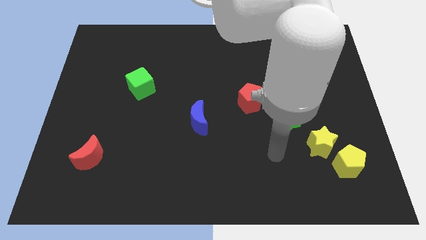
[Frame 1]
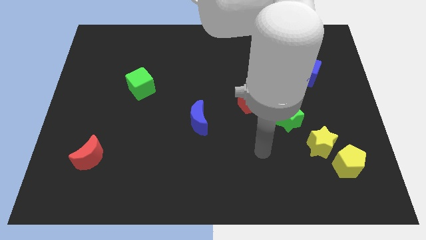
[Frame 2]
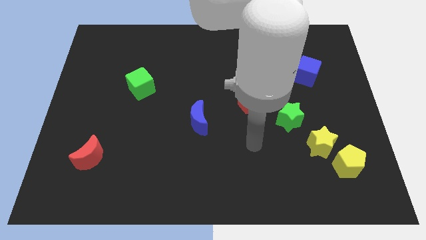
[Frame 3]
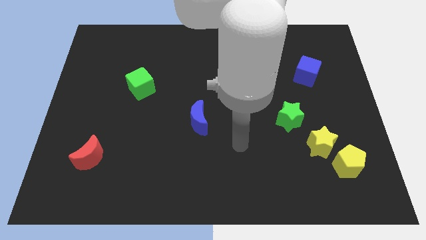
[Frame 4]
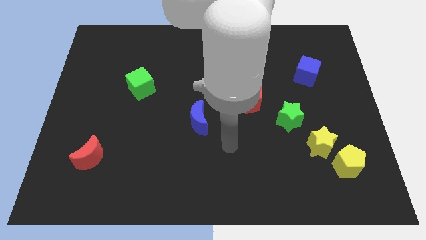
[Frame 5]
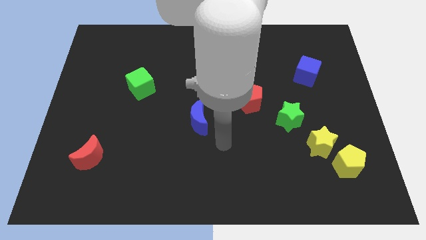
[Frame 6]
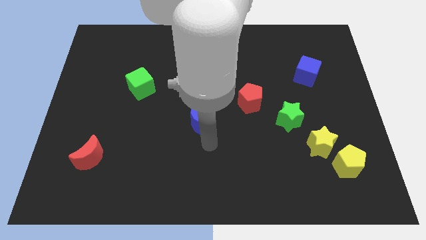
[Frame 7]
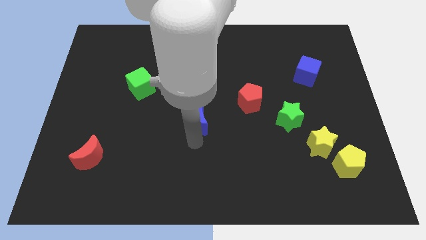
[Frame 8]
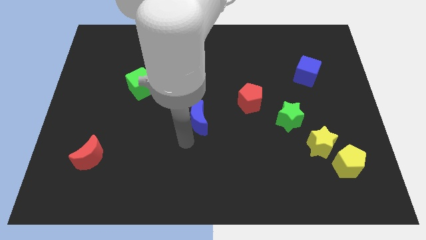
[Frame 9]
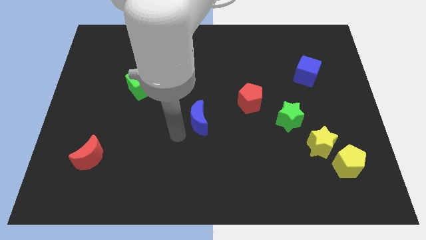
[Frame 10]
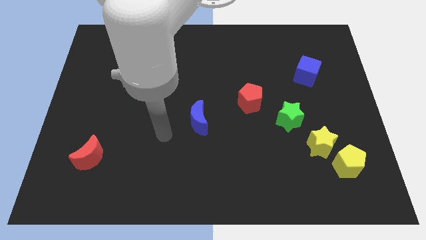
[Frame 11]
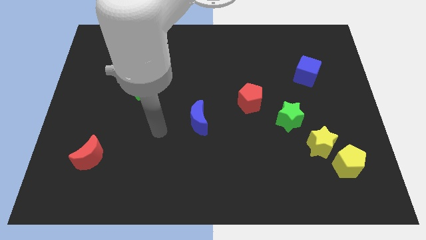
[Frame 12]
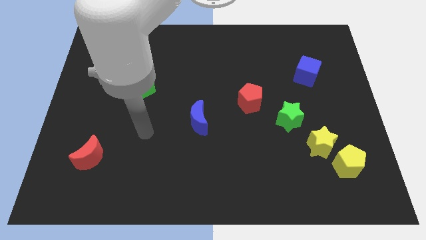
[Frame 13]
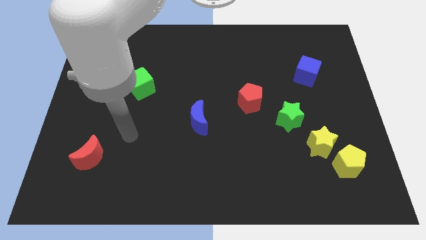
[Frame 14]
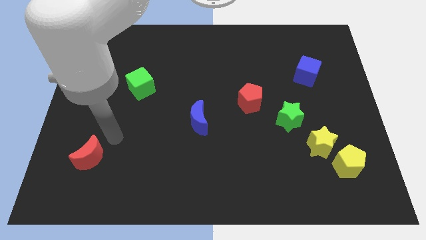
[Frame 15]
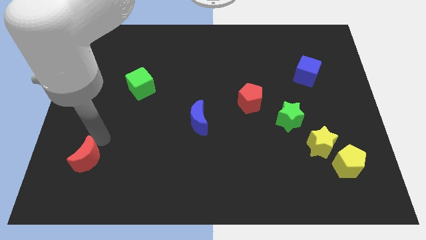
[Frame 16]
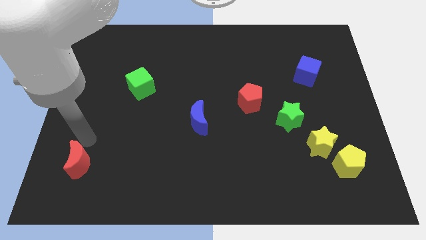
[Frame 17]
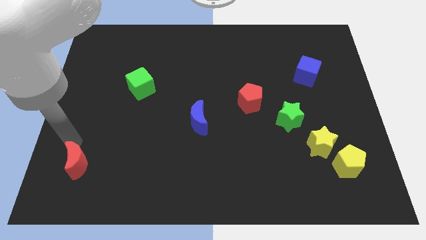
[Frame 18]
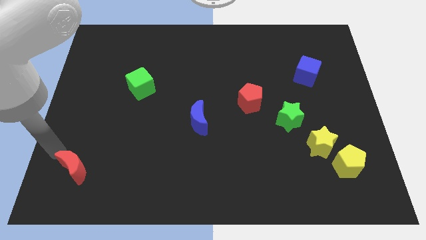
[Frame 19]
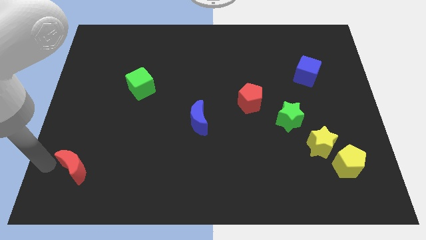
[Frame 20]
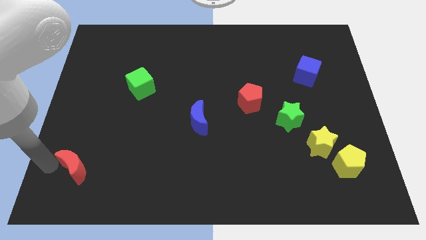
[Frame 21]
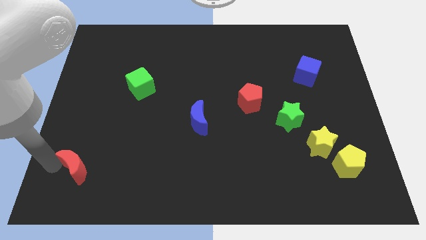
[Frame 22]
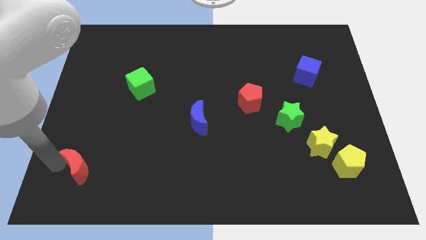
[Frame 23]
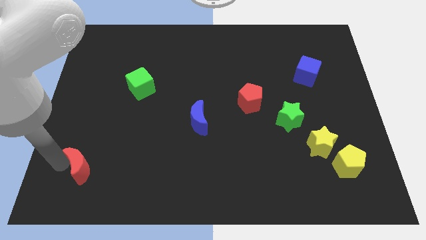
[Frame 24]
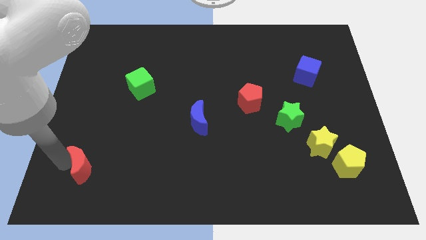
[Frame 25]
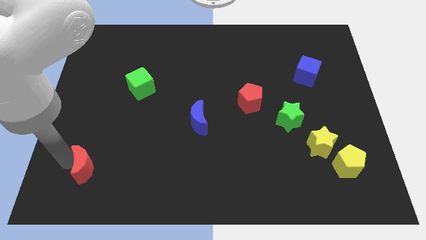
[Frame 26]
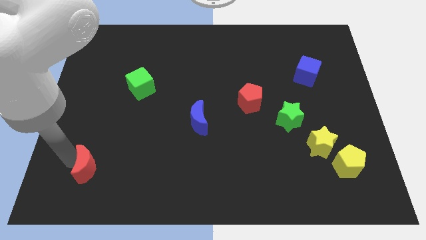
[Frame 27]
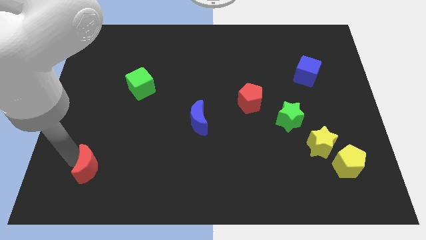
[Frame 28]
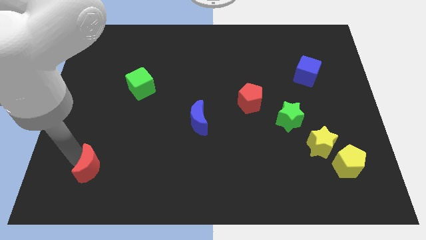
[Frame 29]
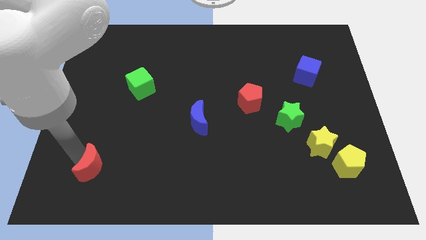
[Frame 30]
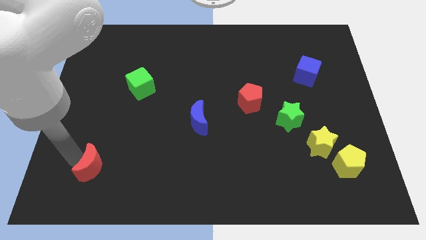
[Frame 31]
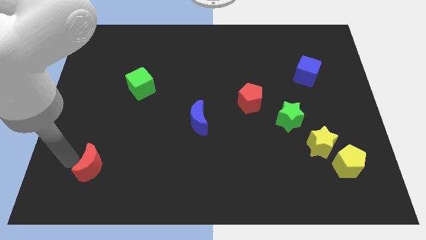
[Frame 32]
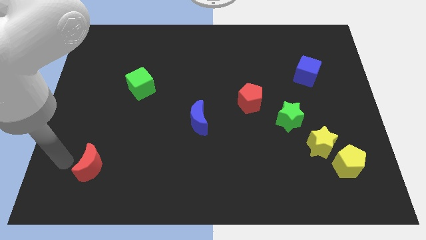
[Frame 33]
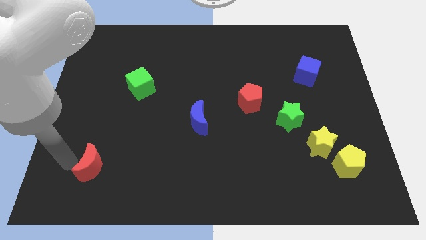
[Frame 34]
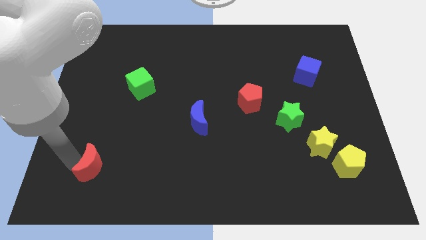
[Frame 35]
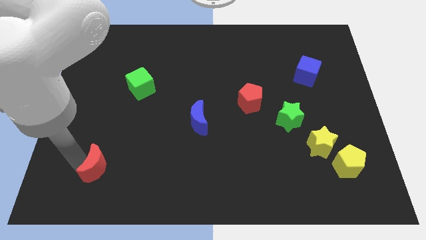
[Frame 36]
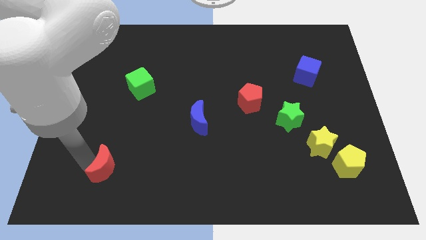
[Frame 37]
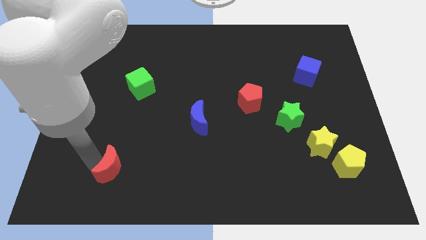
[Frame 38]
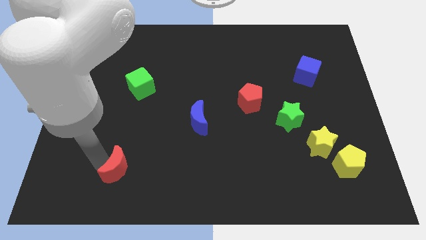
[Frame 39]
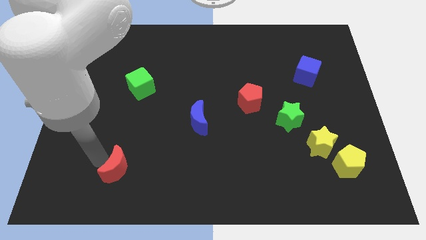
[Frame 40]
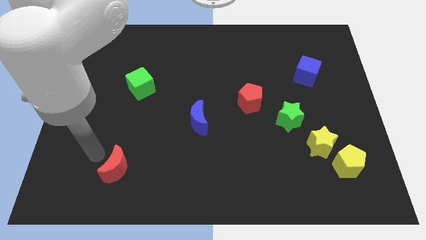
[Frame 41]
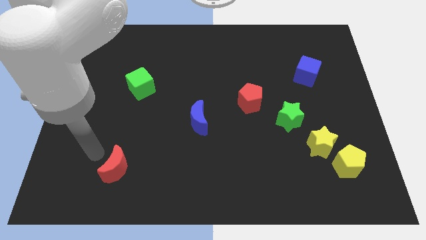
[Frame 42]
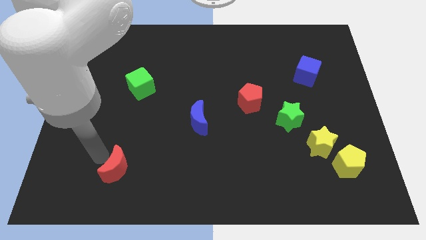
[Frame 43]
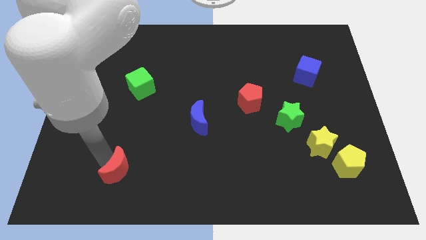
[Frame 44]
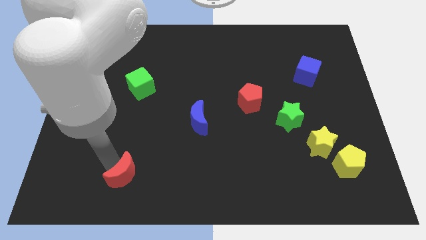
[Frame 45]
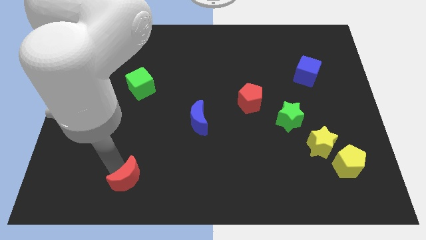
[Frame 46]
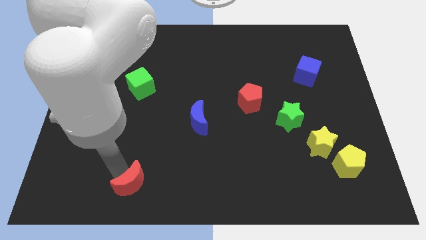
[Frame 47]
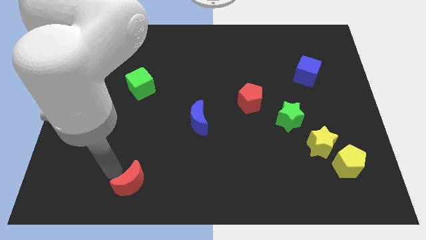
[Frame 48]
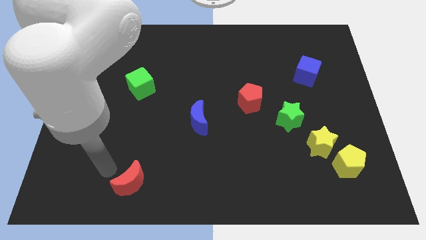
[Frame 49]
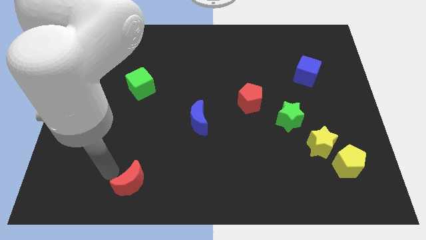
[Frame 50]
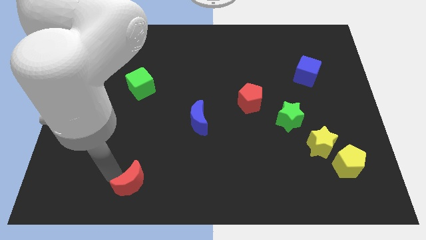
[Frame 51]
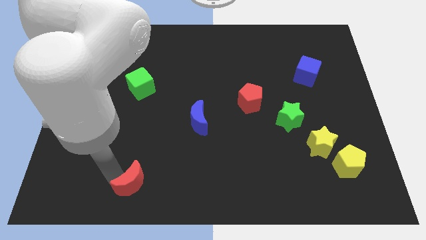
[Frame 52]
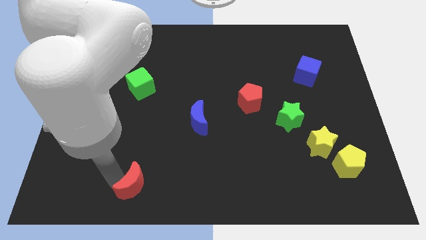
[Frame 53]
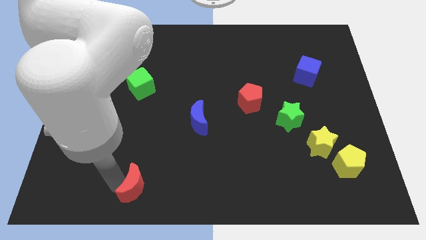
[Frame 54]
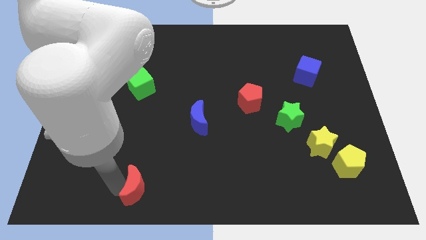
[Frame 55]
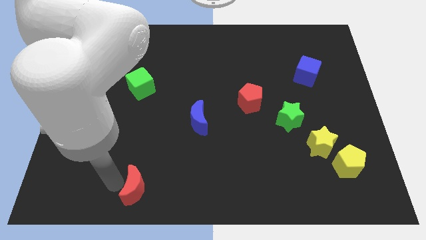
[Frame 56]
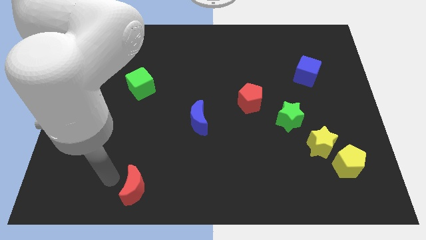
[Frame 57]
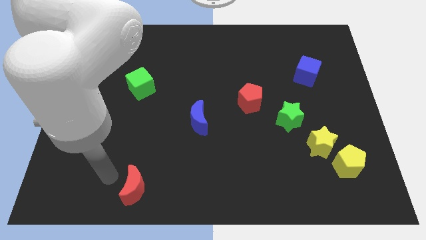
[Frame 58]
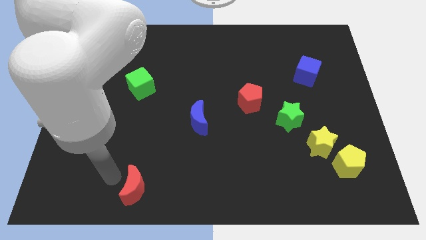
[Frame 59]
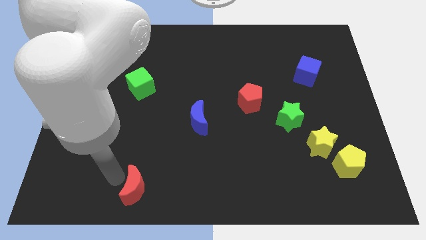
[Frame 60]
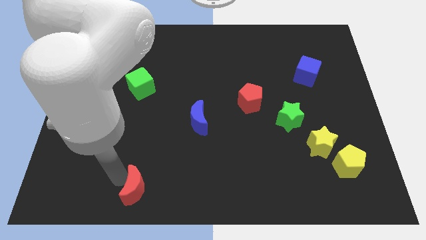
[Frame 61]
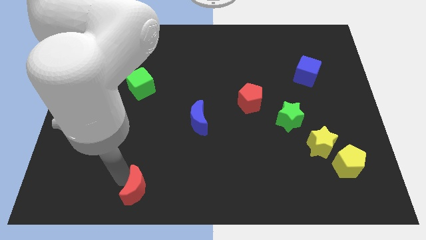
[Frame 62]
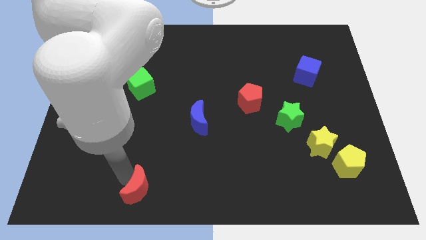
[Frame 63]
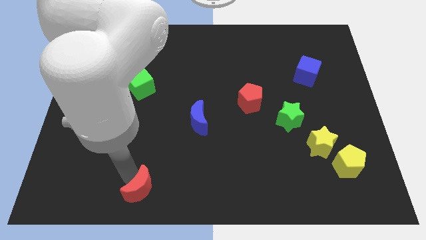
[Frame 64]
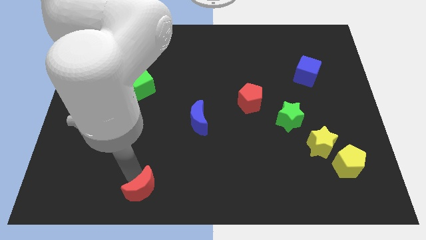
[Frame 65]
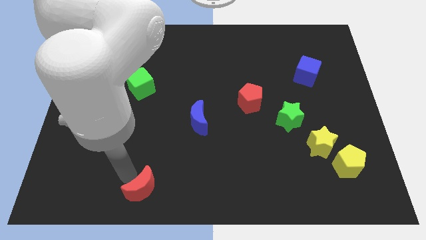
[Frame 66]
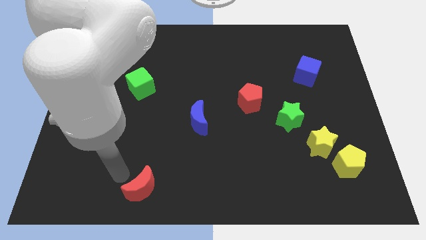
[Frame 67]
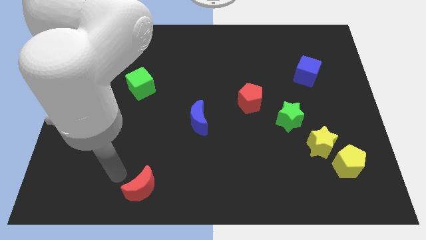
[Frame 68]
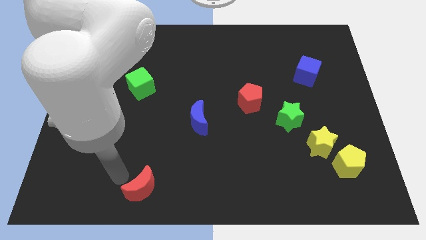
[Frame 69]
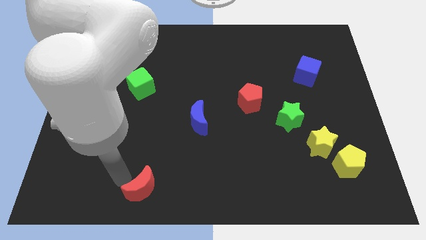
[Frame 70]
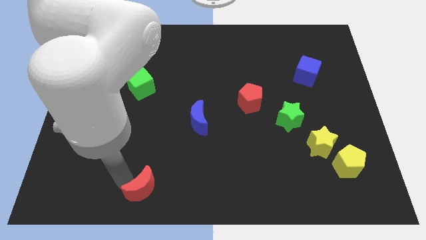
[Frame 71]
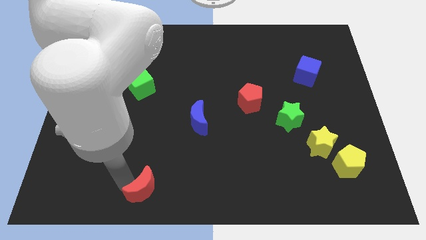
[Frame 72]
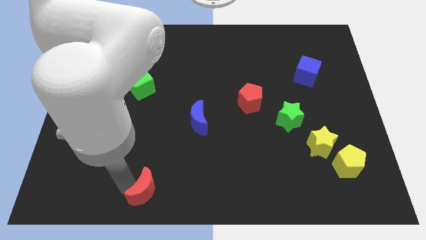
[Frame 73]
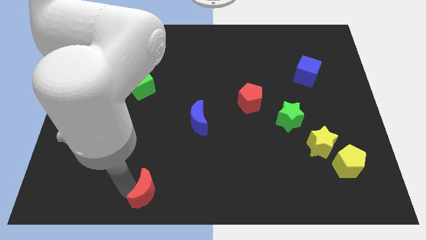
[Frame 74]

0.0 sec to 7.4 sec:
push the red moon to the bottom side
